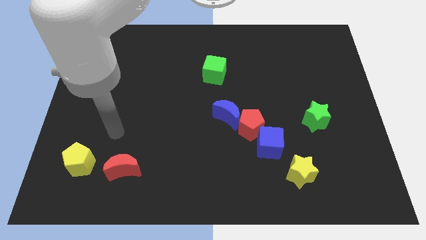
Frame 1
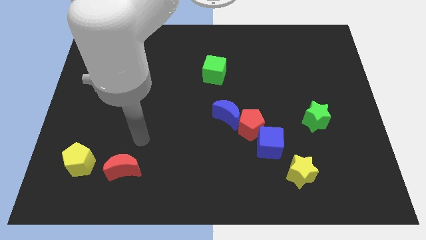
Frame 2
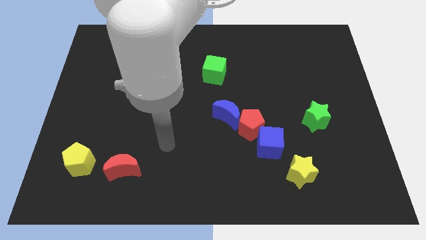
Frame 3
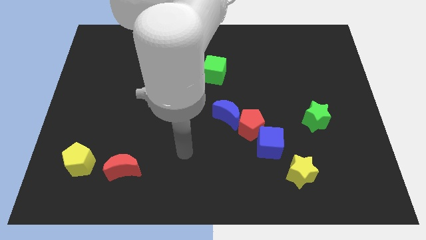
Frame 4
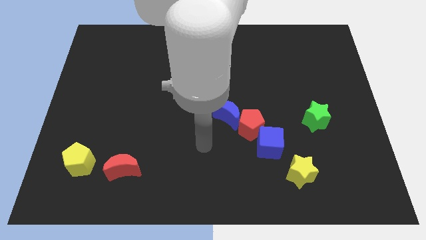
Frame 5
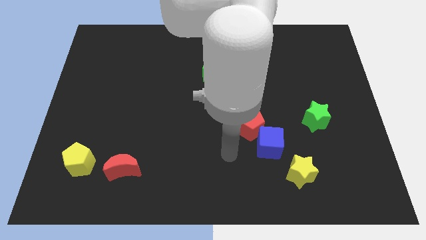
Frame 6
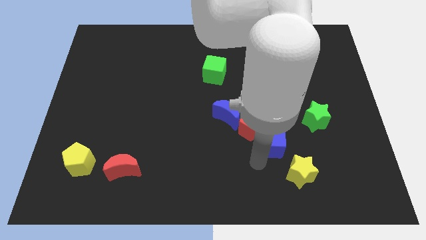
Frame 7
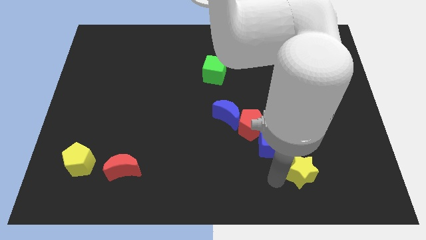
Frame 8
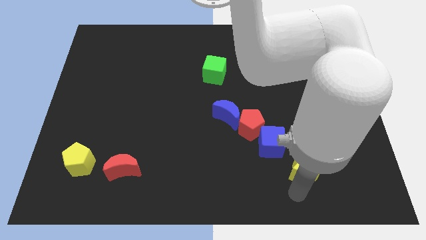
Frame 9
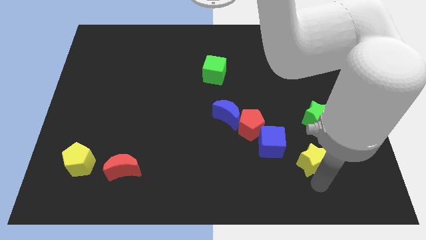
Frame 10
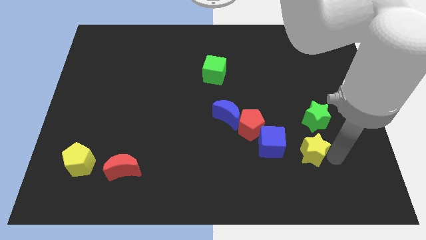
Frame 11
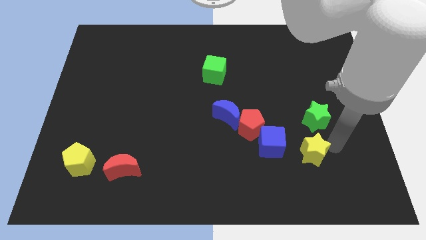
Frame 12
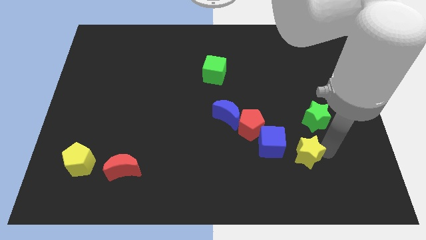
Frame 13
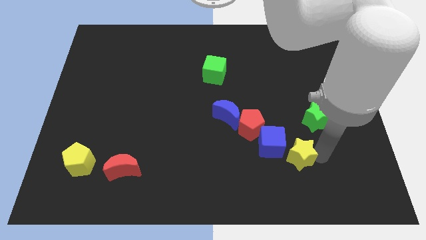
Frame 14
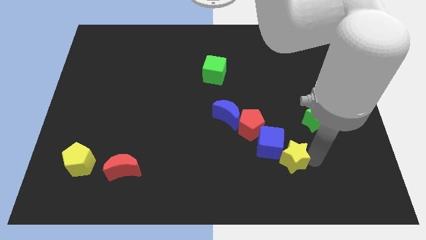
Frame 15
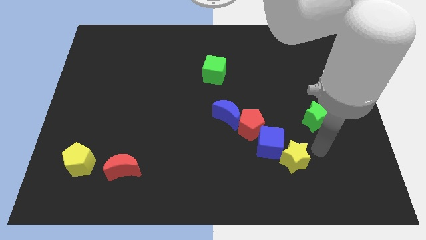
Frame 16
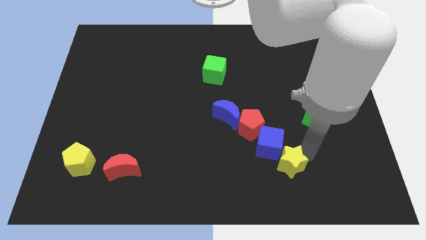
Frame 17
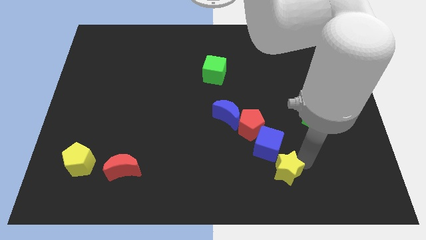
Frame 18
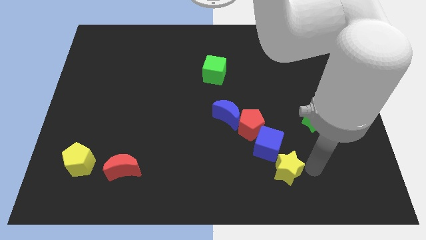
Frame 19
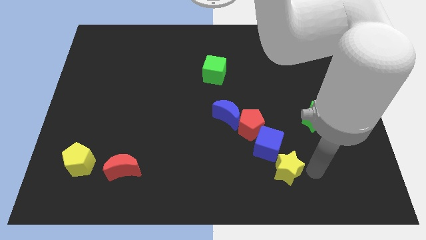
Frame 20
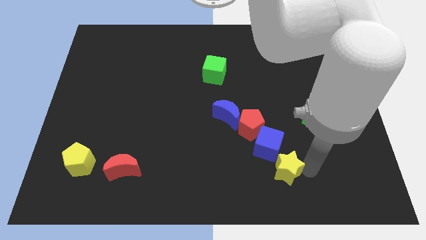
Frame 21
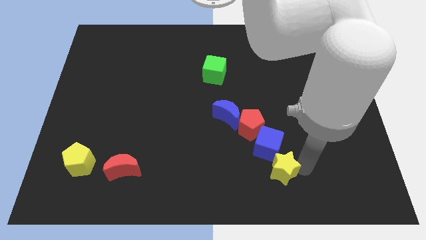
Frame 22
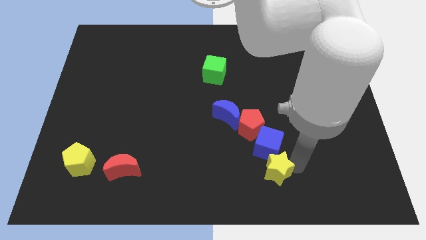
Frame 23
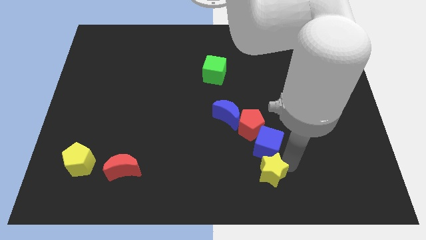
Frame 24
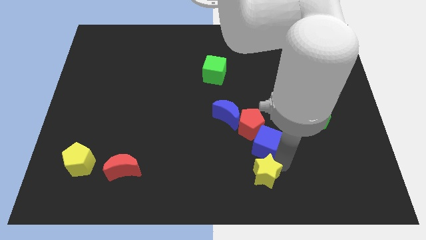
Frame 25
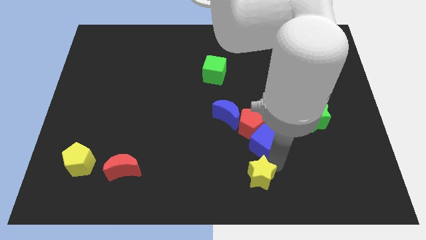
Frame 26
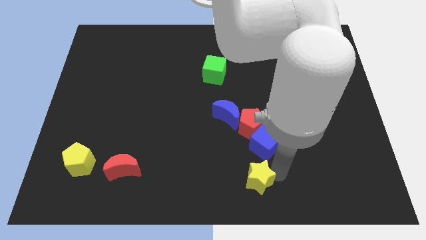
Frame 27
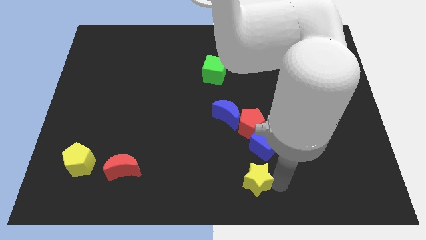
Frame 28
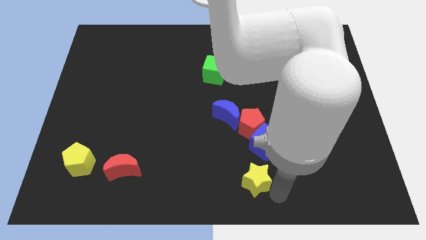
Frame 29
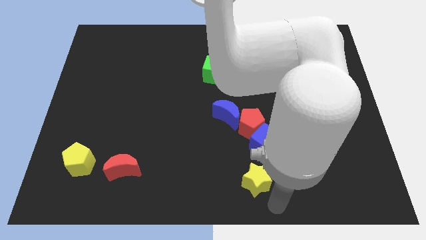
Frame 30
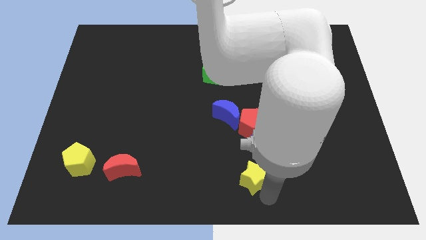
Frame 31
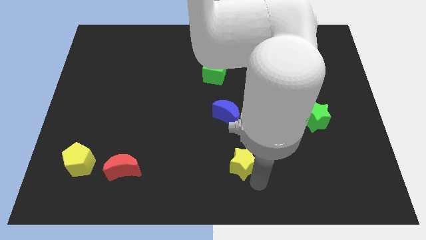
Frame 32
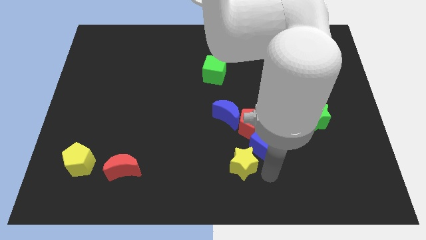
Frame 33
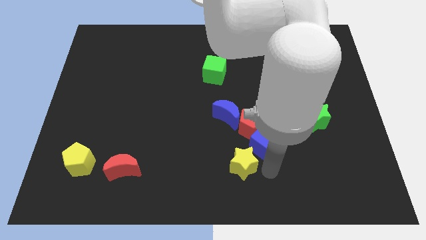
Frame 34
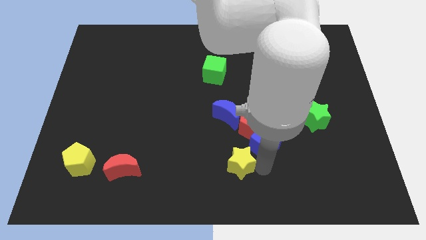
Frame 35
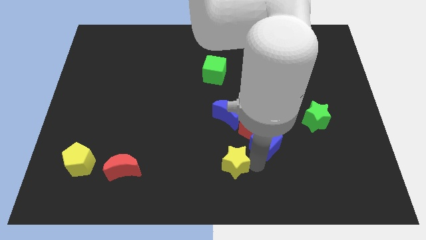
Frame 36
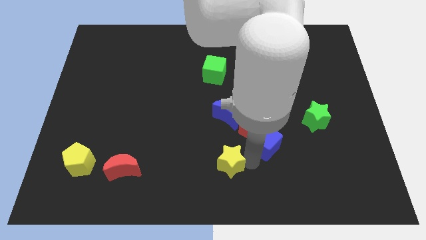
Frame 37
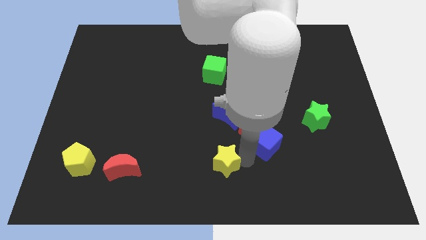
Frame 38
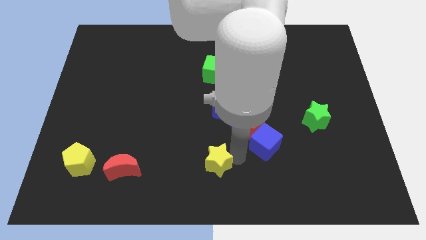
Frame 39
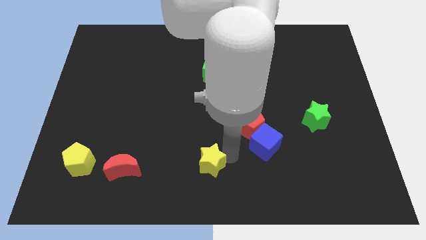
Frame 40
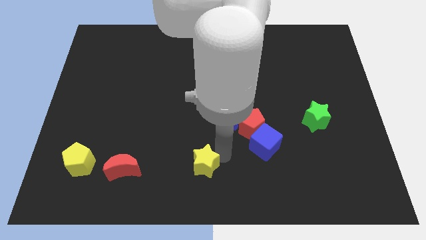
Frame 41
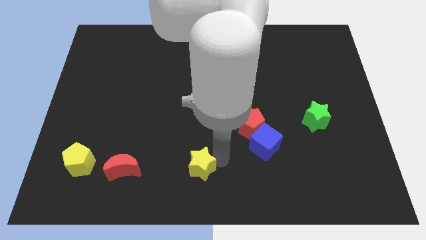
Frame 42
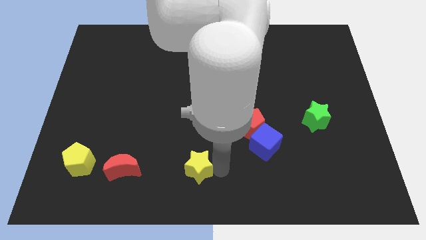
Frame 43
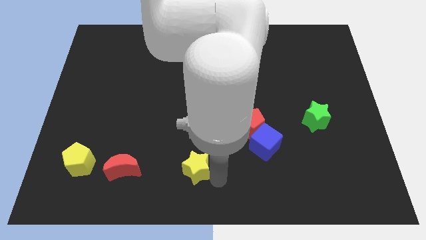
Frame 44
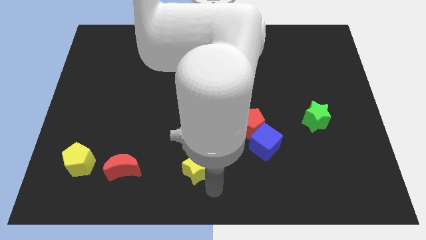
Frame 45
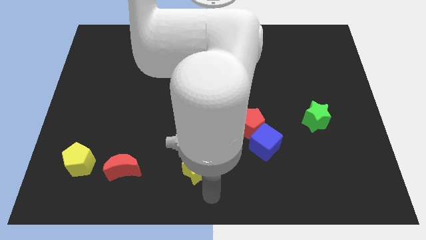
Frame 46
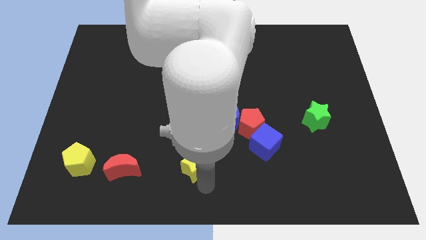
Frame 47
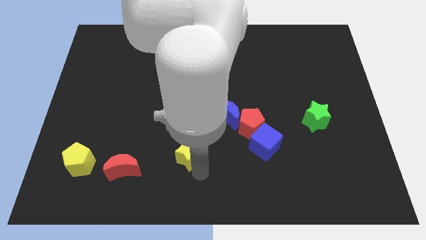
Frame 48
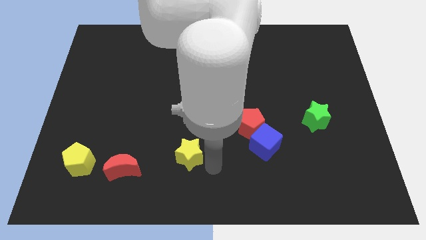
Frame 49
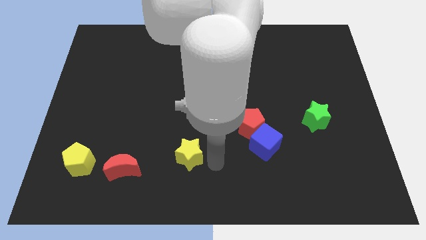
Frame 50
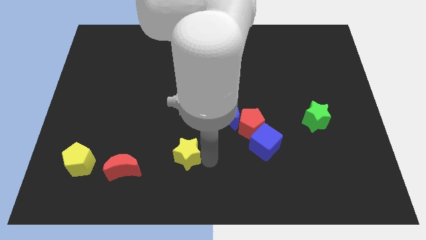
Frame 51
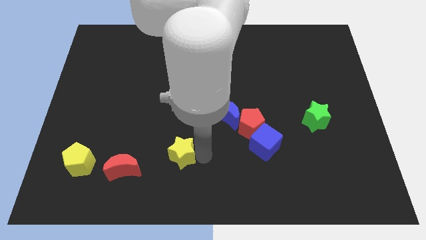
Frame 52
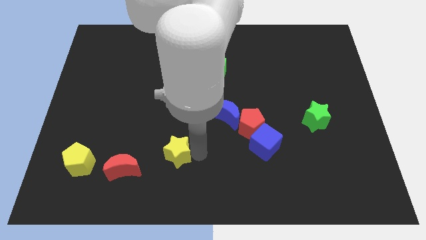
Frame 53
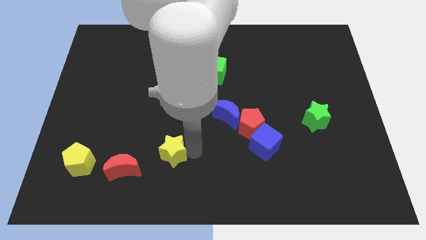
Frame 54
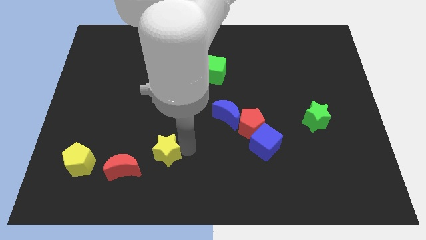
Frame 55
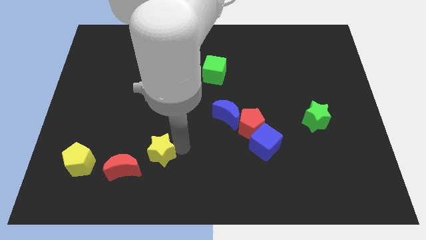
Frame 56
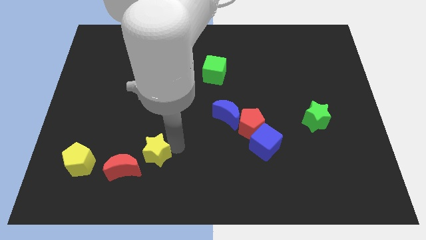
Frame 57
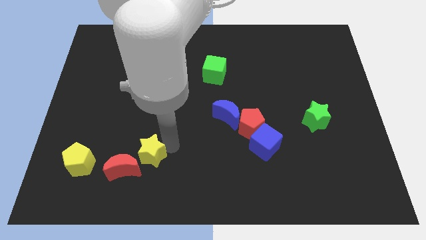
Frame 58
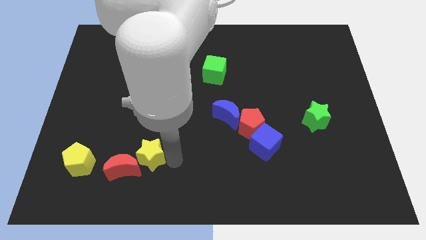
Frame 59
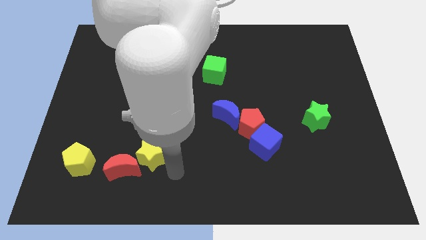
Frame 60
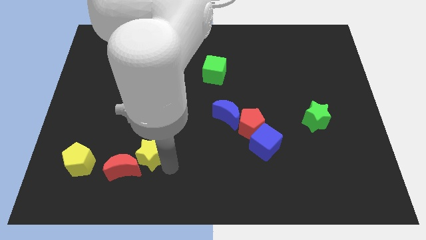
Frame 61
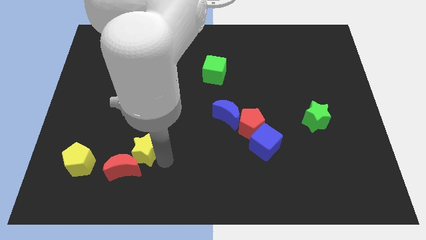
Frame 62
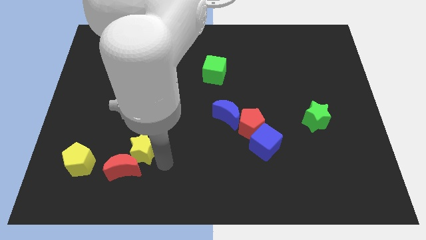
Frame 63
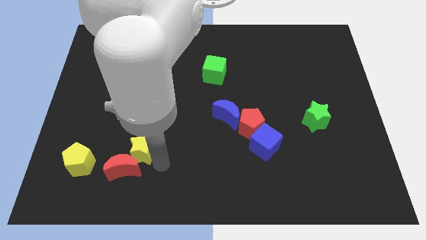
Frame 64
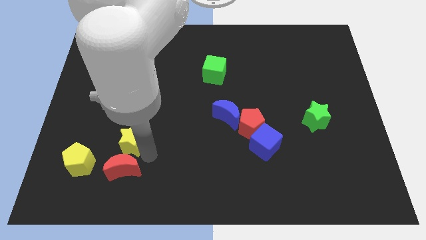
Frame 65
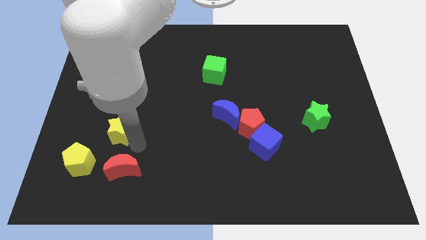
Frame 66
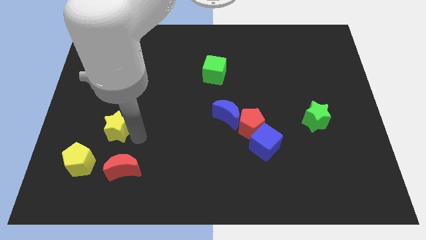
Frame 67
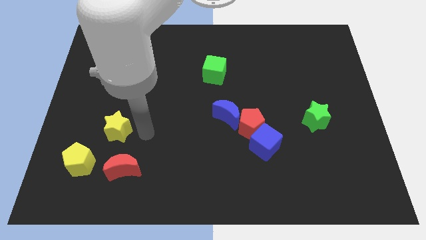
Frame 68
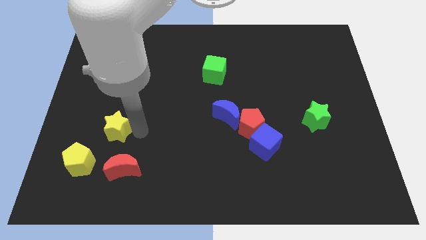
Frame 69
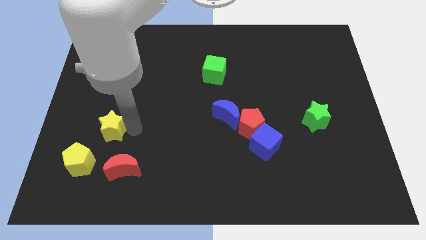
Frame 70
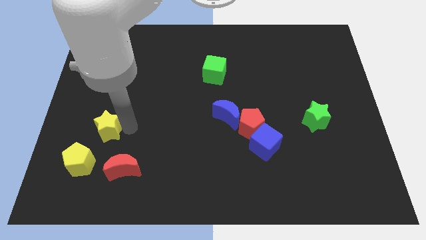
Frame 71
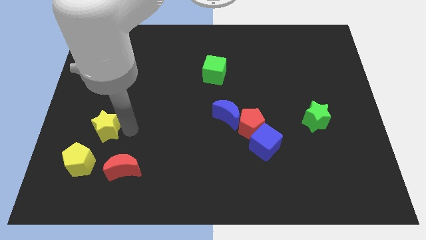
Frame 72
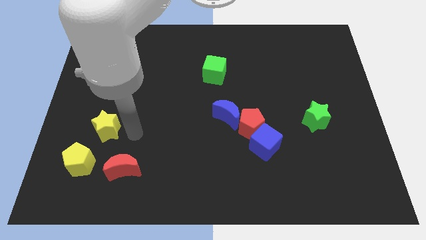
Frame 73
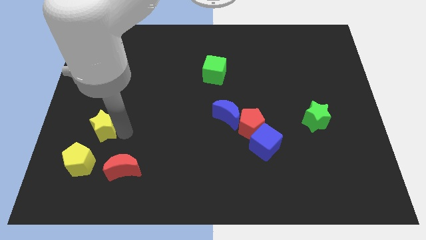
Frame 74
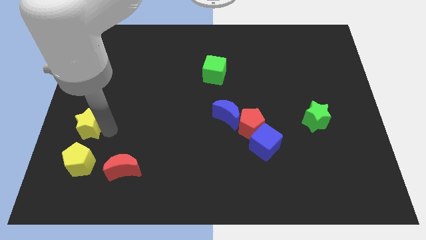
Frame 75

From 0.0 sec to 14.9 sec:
slide the yellow star to the left side
